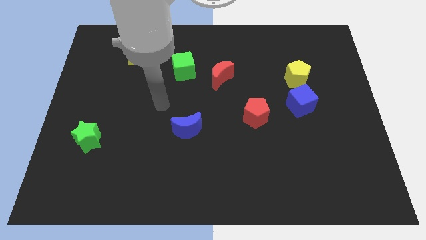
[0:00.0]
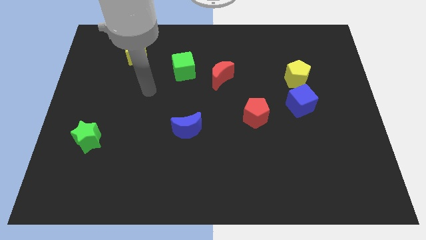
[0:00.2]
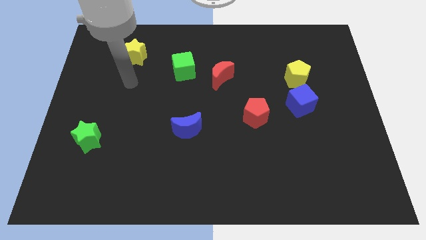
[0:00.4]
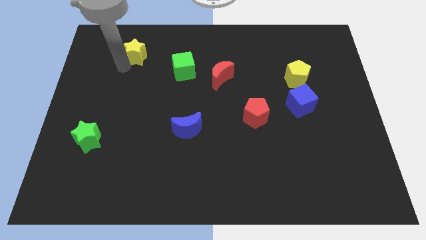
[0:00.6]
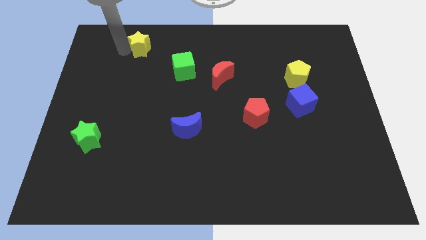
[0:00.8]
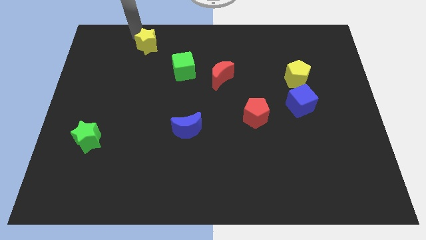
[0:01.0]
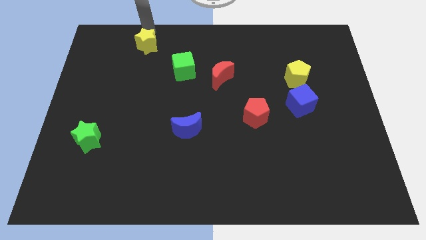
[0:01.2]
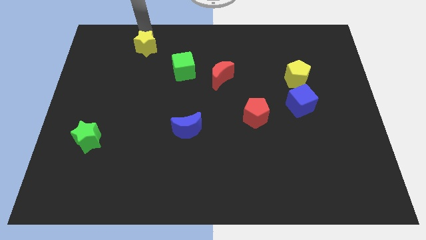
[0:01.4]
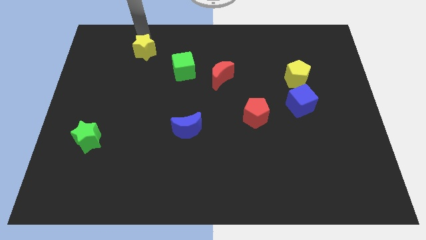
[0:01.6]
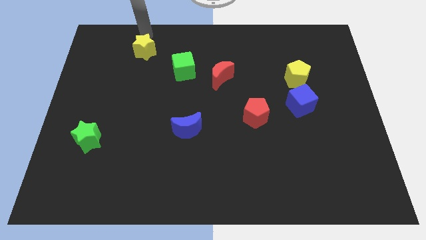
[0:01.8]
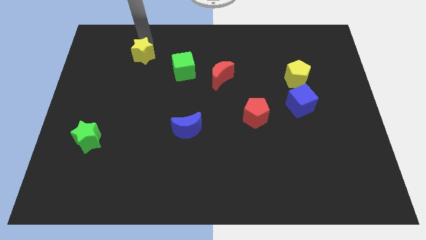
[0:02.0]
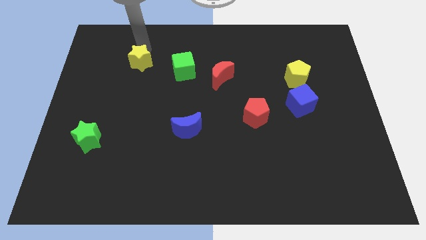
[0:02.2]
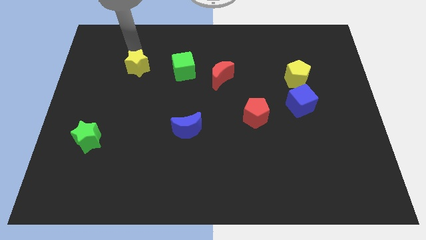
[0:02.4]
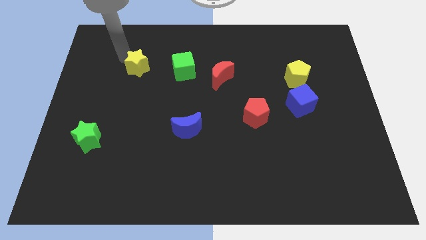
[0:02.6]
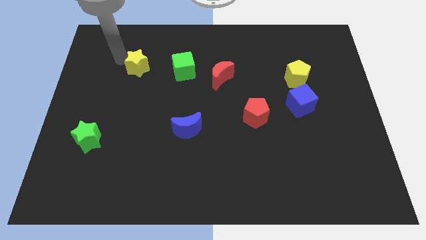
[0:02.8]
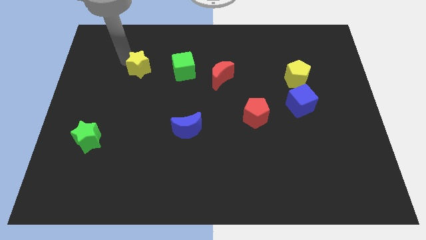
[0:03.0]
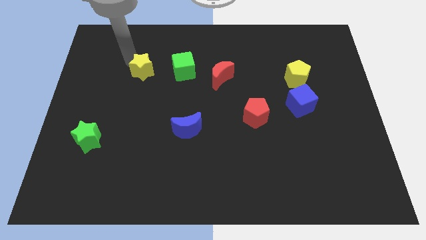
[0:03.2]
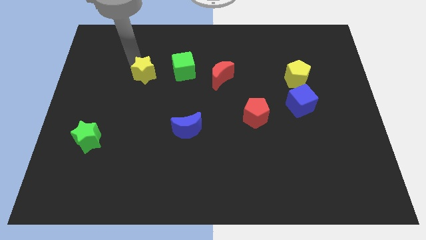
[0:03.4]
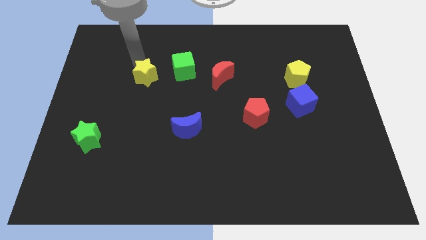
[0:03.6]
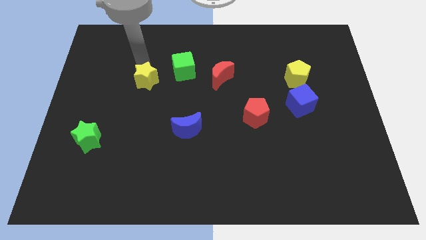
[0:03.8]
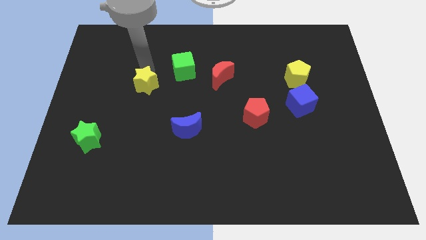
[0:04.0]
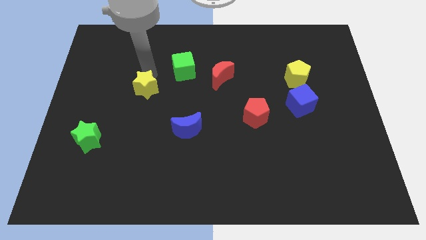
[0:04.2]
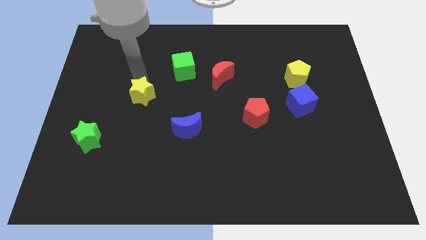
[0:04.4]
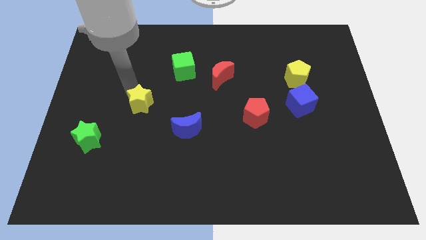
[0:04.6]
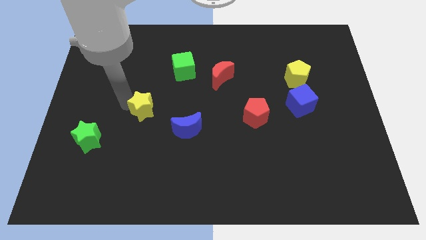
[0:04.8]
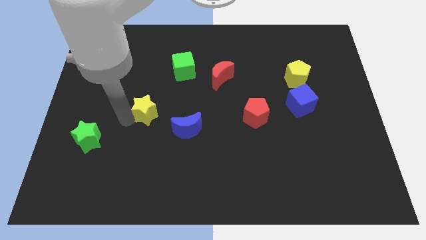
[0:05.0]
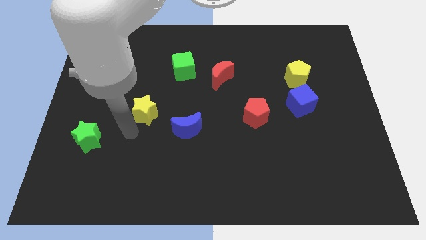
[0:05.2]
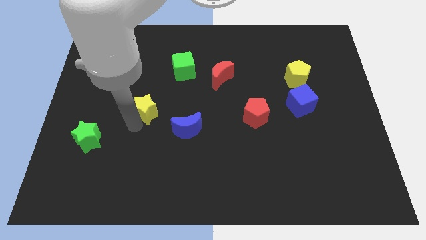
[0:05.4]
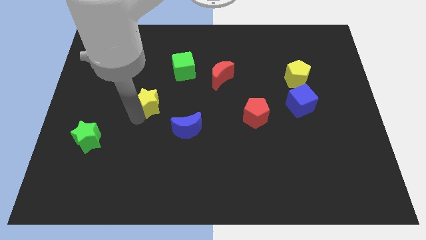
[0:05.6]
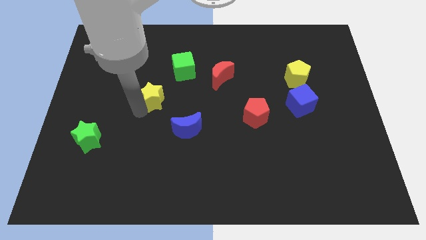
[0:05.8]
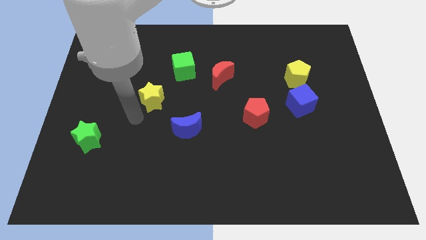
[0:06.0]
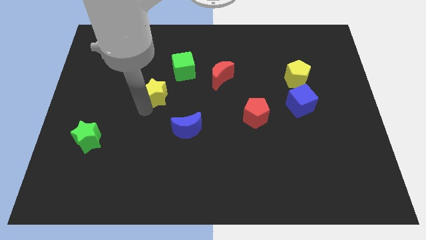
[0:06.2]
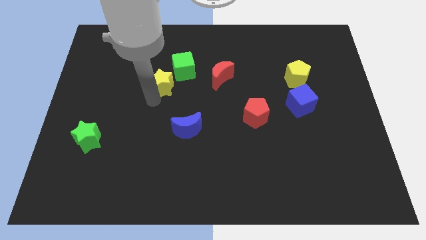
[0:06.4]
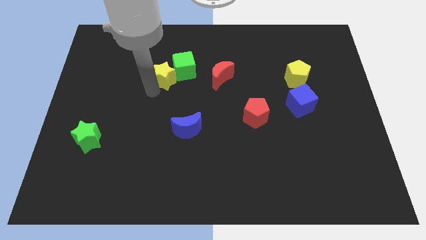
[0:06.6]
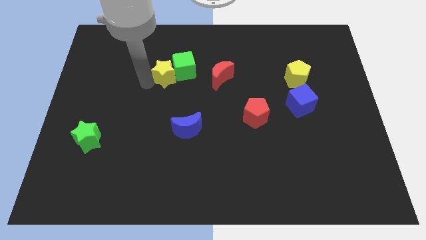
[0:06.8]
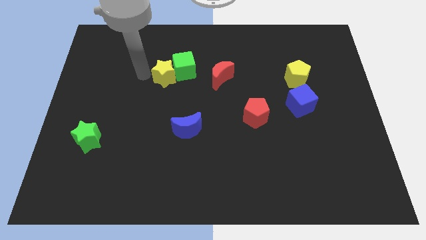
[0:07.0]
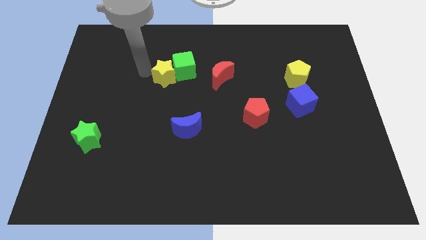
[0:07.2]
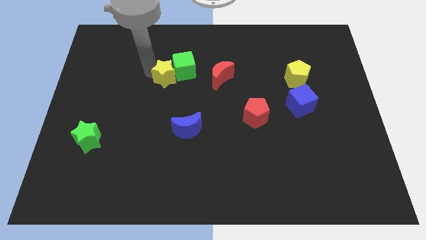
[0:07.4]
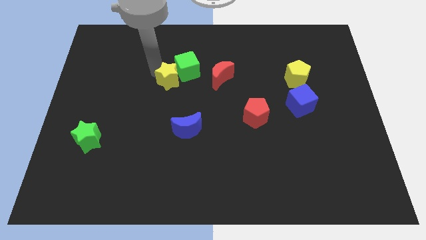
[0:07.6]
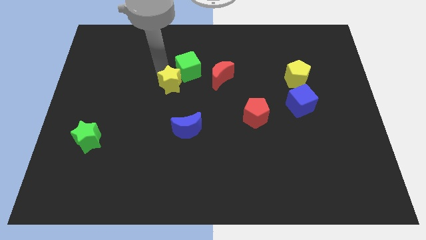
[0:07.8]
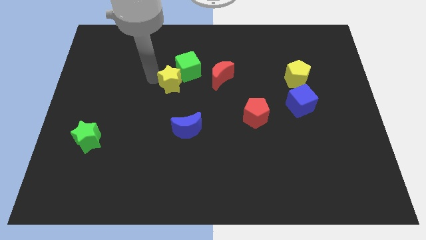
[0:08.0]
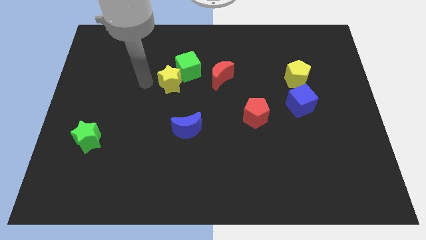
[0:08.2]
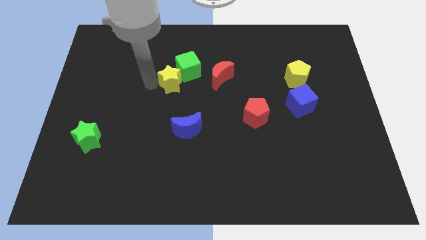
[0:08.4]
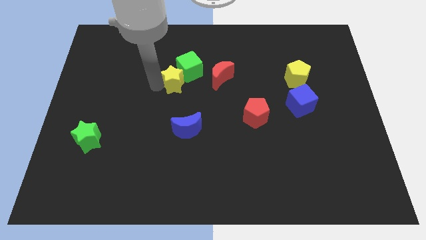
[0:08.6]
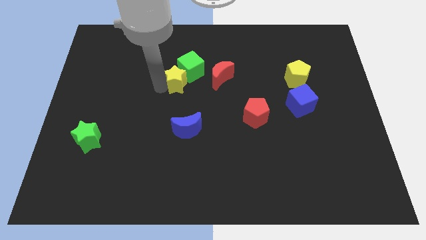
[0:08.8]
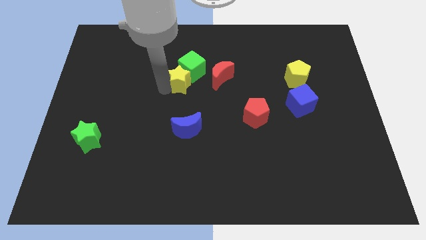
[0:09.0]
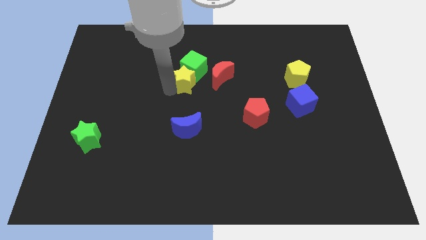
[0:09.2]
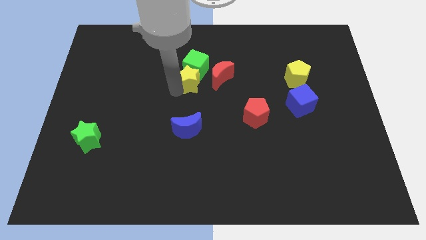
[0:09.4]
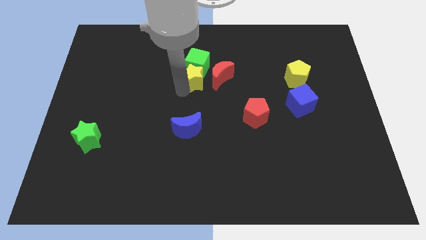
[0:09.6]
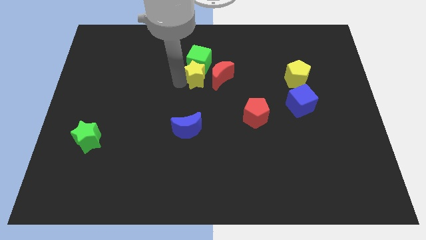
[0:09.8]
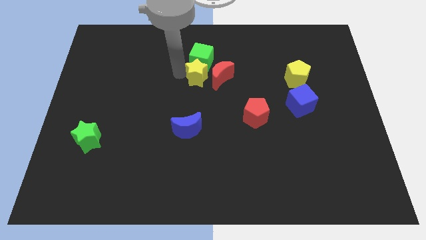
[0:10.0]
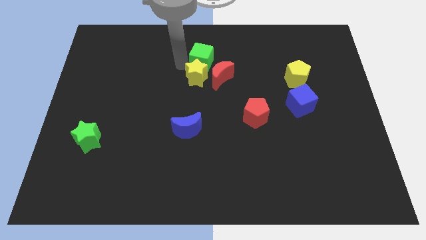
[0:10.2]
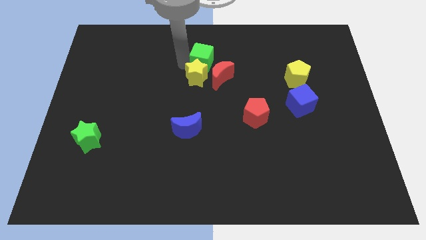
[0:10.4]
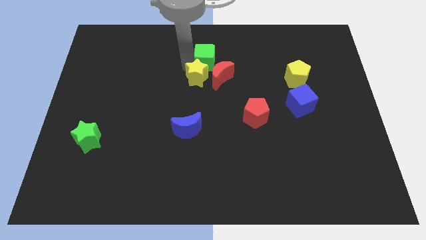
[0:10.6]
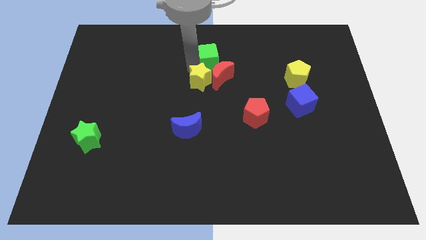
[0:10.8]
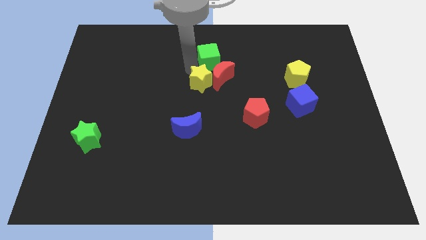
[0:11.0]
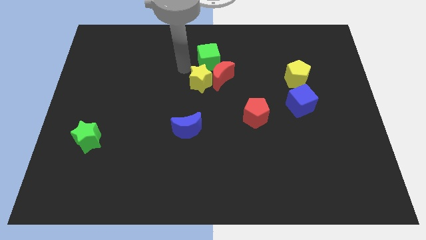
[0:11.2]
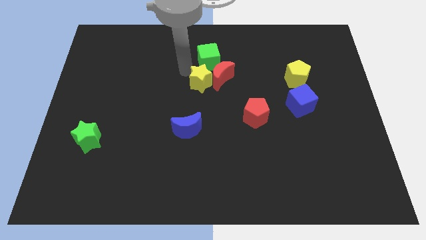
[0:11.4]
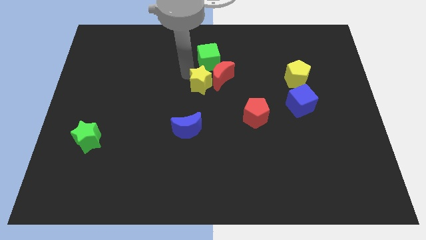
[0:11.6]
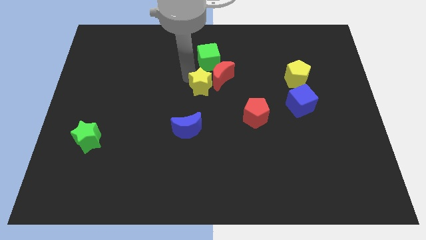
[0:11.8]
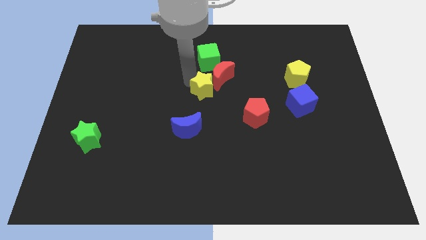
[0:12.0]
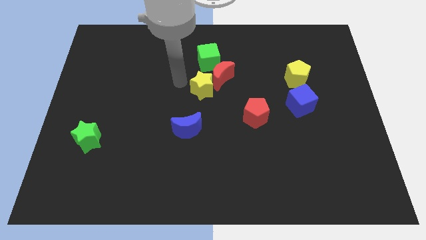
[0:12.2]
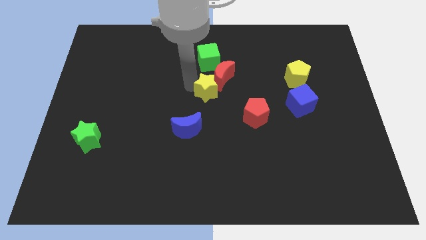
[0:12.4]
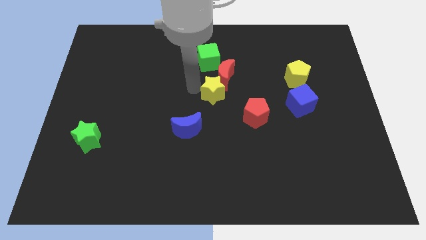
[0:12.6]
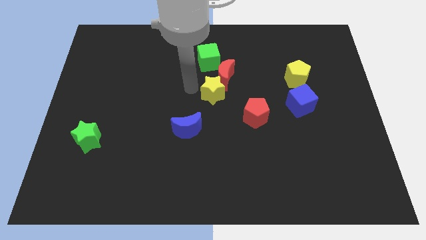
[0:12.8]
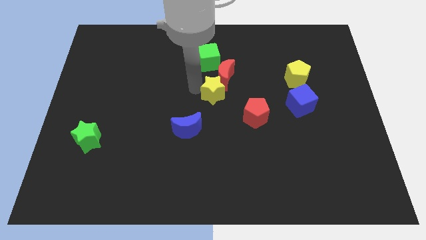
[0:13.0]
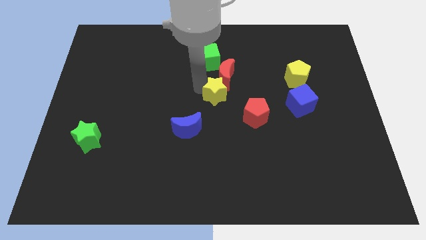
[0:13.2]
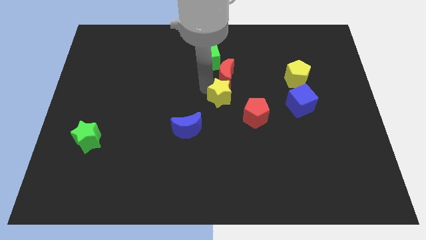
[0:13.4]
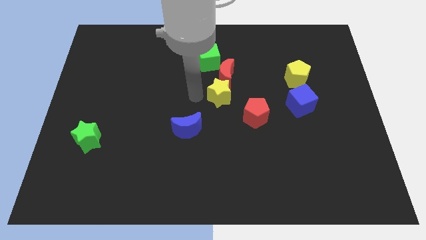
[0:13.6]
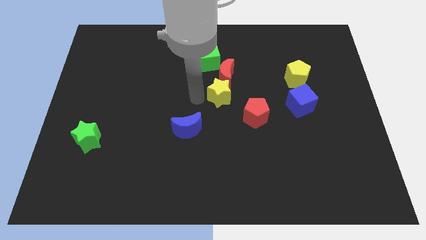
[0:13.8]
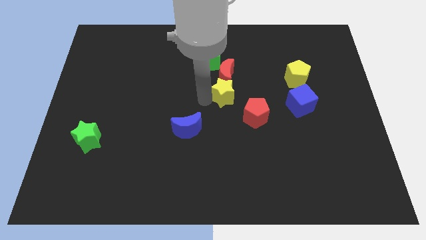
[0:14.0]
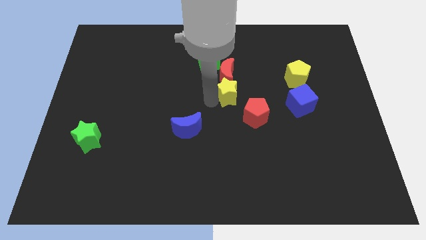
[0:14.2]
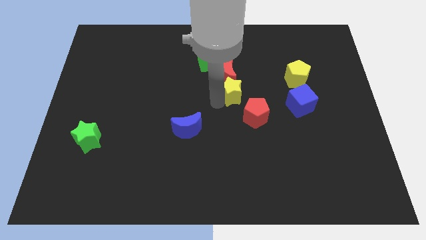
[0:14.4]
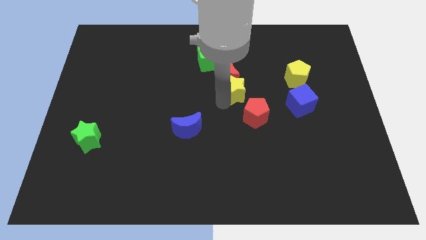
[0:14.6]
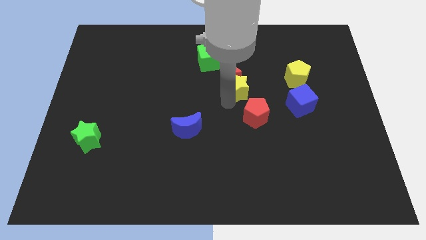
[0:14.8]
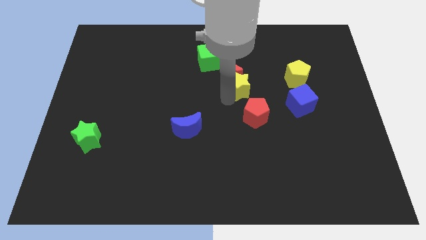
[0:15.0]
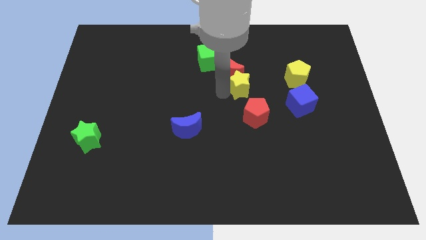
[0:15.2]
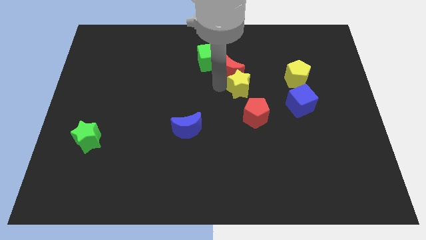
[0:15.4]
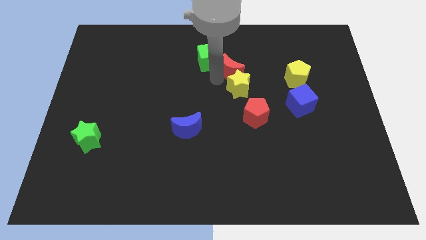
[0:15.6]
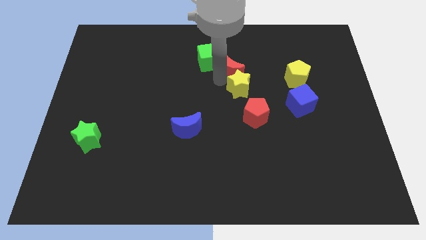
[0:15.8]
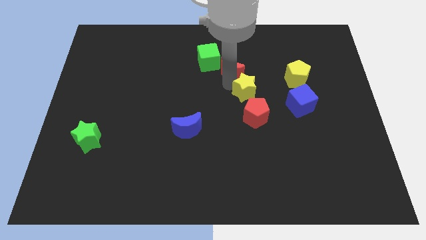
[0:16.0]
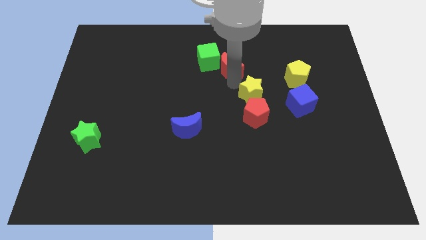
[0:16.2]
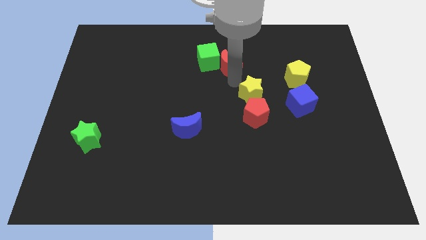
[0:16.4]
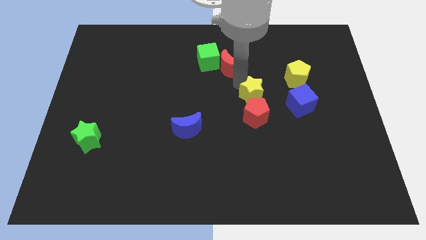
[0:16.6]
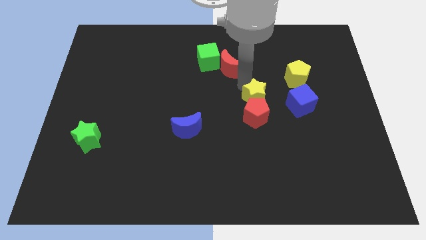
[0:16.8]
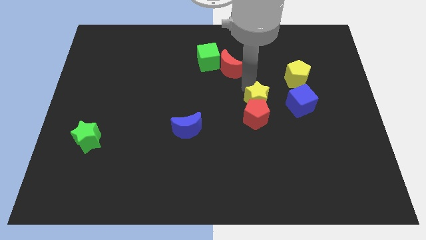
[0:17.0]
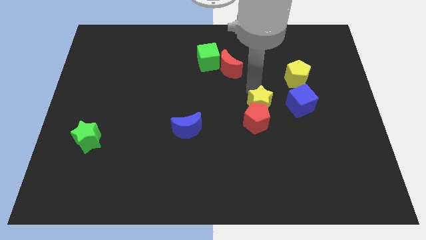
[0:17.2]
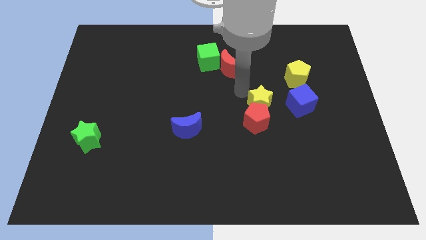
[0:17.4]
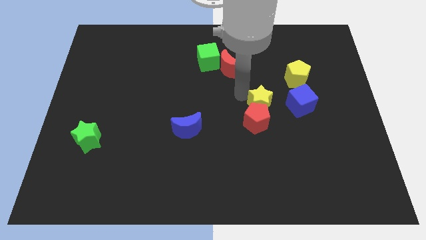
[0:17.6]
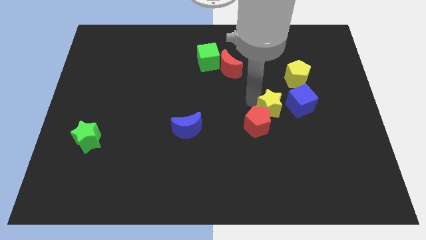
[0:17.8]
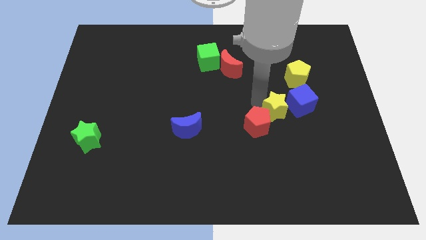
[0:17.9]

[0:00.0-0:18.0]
put the yellow star just right of the red pentagon
